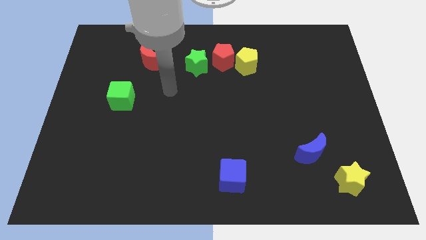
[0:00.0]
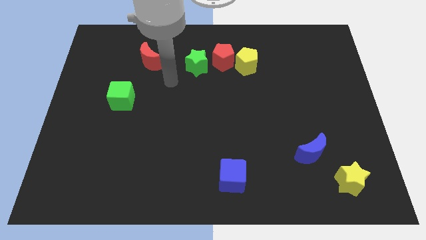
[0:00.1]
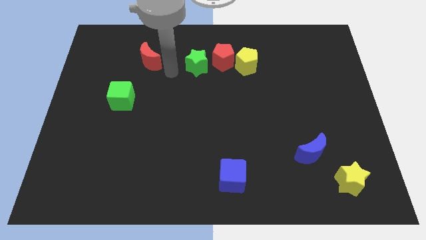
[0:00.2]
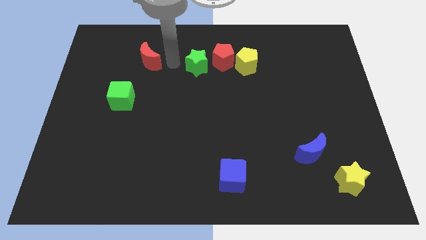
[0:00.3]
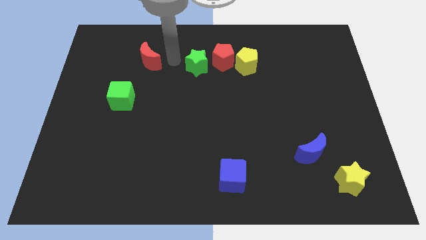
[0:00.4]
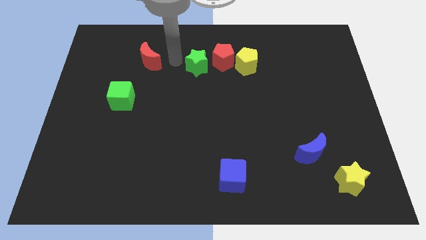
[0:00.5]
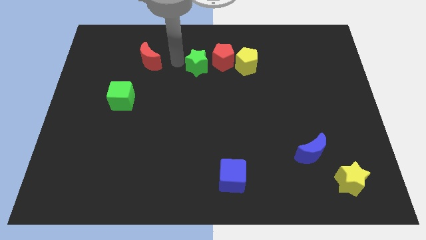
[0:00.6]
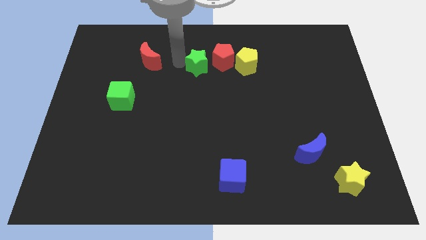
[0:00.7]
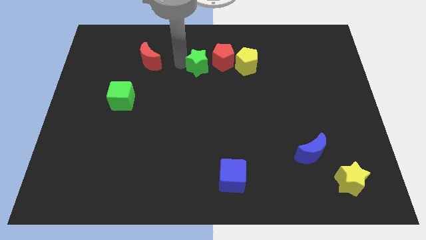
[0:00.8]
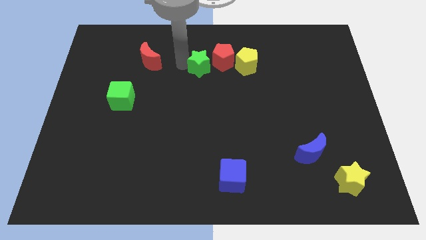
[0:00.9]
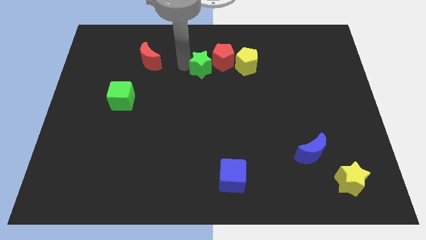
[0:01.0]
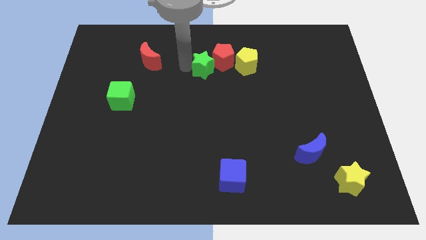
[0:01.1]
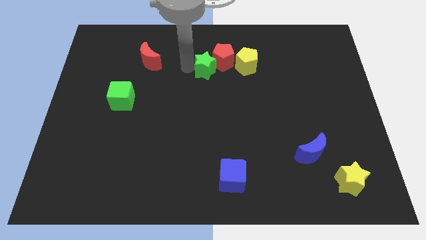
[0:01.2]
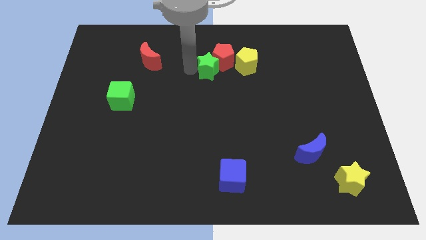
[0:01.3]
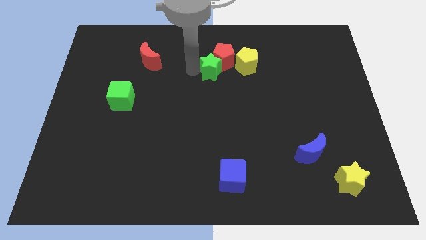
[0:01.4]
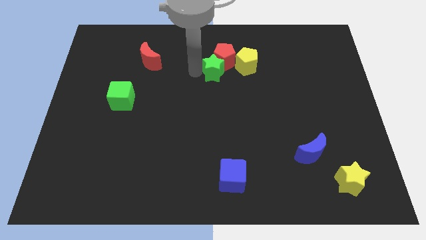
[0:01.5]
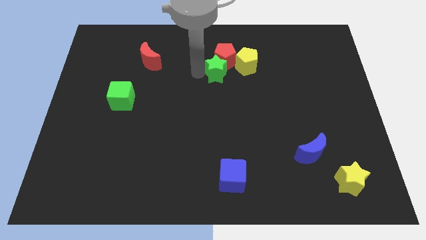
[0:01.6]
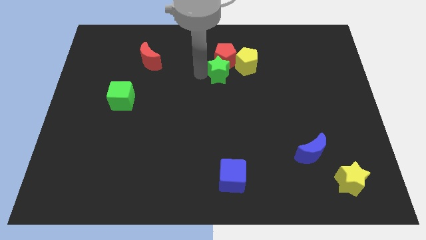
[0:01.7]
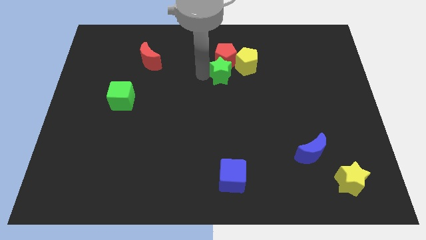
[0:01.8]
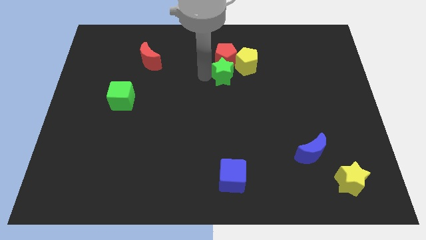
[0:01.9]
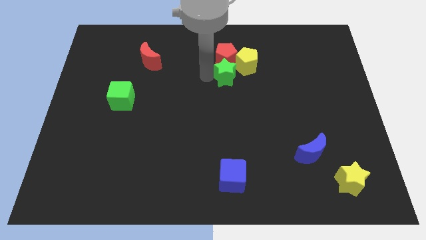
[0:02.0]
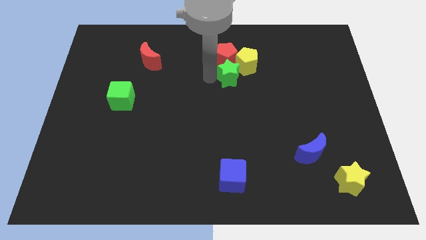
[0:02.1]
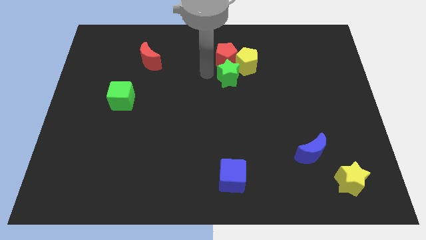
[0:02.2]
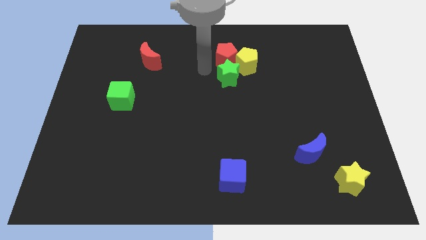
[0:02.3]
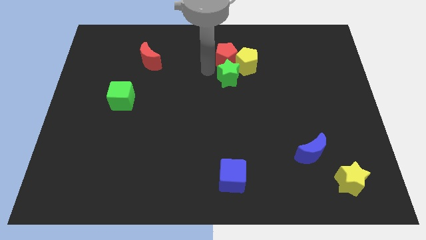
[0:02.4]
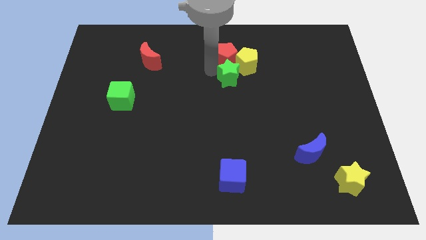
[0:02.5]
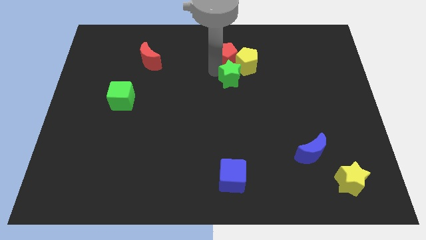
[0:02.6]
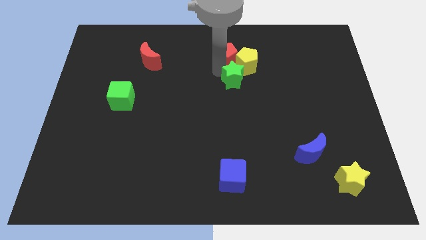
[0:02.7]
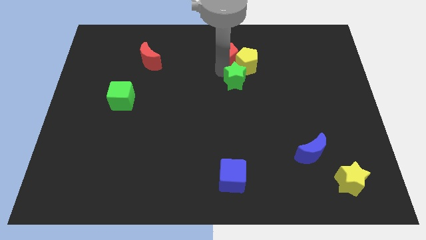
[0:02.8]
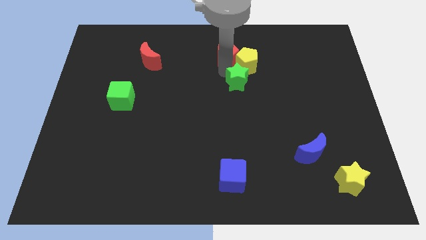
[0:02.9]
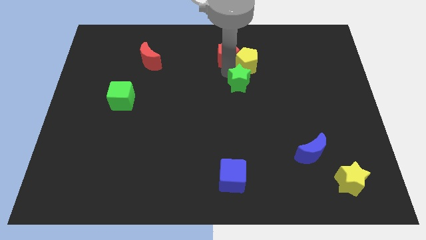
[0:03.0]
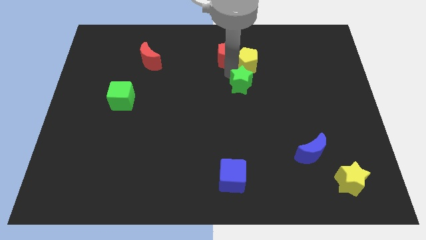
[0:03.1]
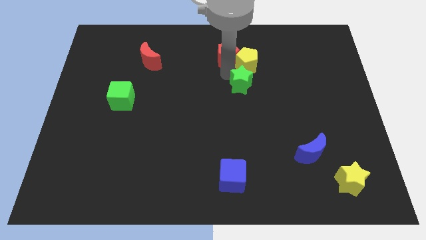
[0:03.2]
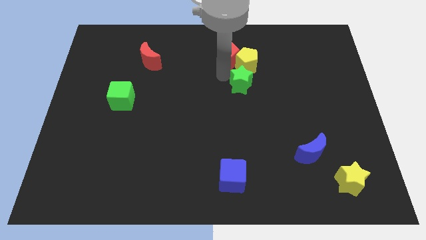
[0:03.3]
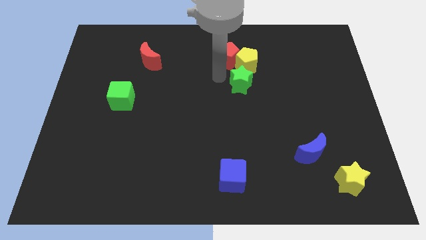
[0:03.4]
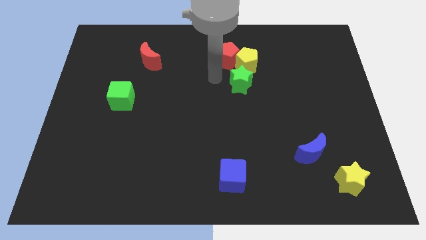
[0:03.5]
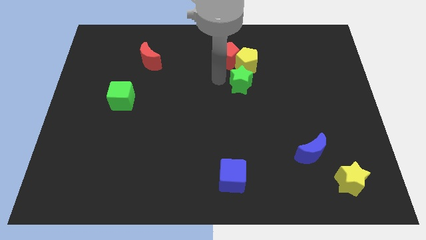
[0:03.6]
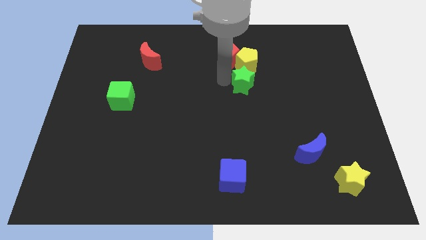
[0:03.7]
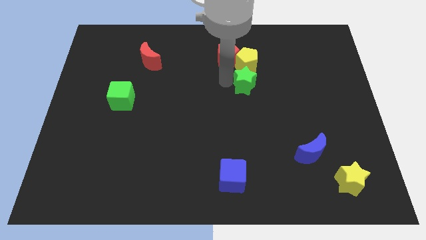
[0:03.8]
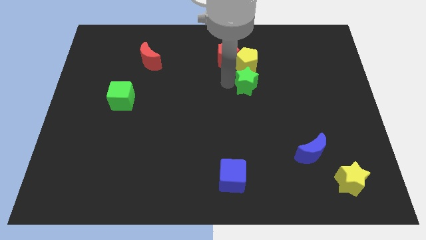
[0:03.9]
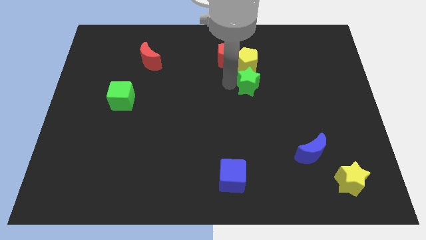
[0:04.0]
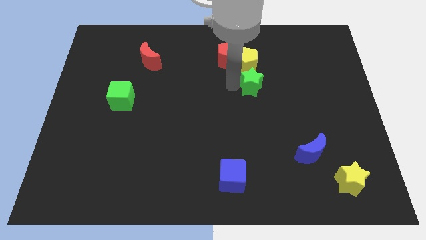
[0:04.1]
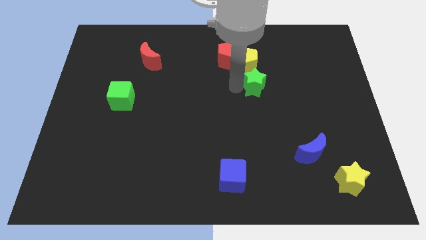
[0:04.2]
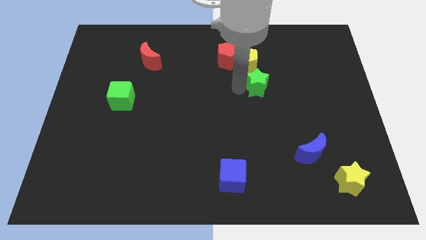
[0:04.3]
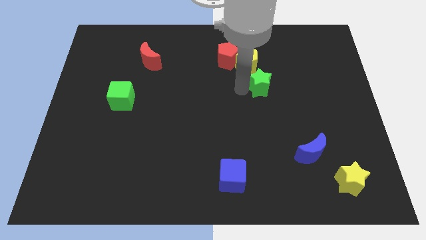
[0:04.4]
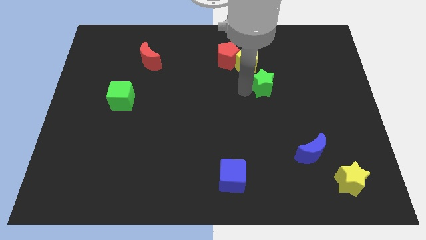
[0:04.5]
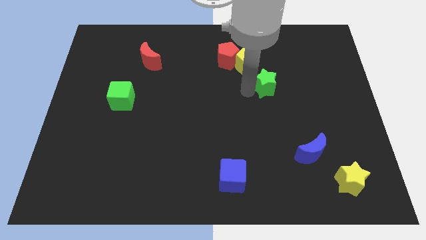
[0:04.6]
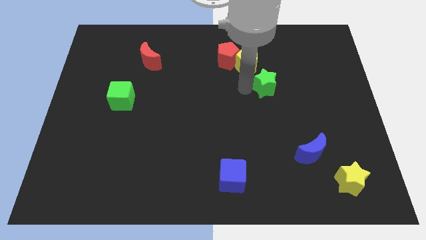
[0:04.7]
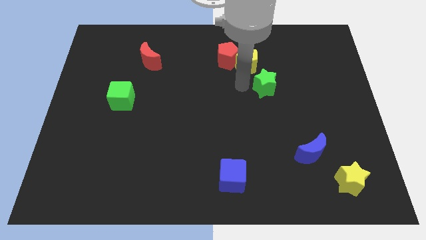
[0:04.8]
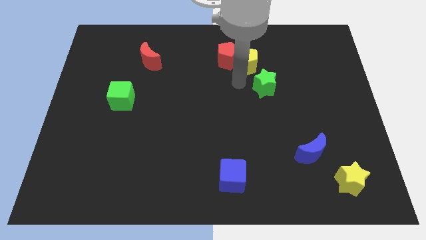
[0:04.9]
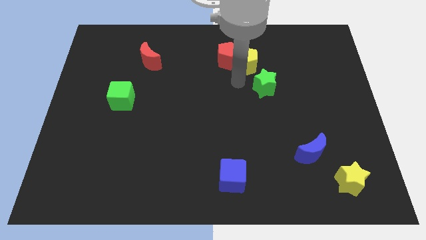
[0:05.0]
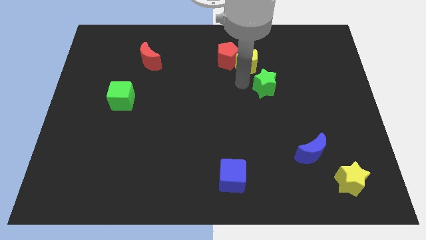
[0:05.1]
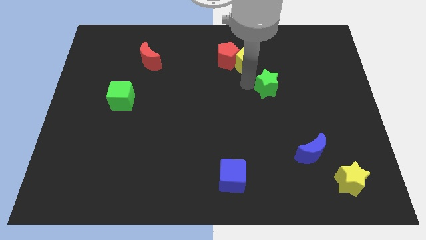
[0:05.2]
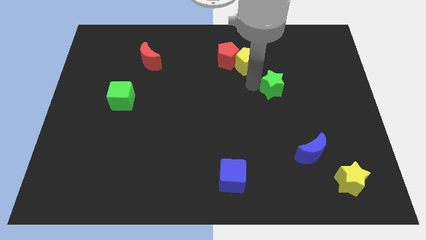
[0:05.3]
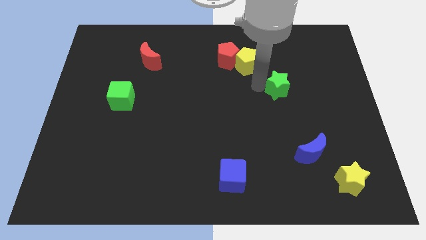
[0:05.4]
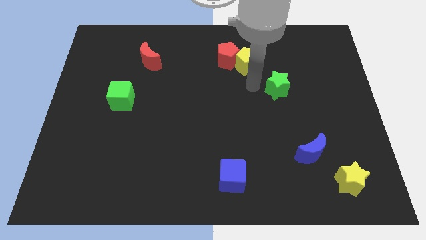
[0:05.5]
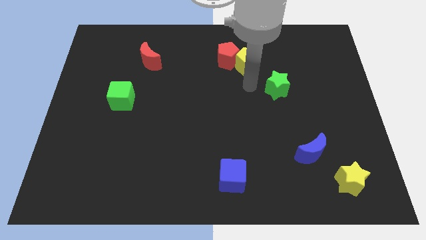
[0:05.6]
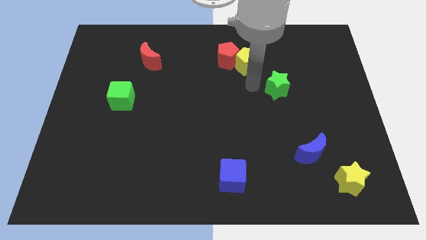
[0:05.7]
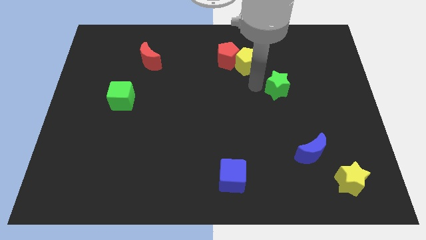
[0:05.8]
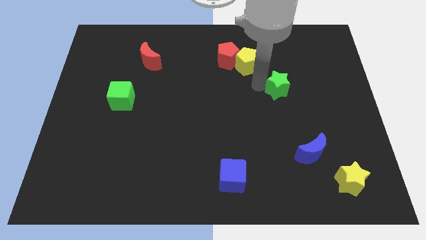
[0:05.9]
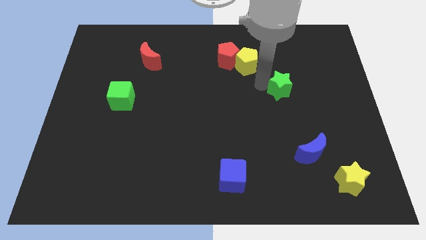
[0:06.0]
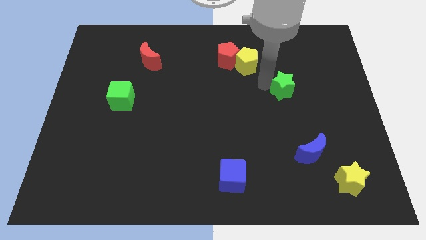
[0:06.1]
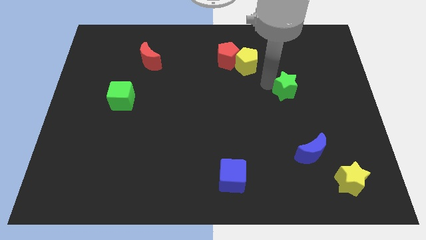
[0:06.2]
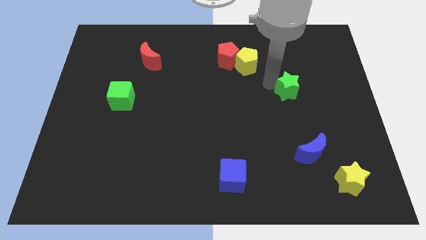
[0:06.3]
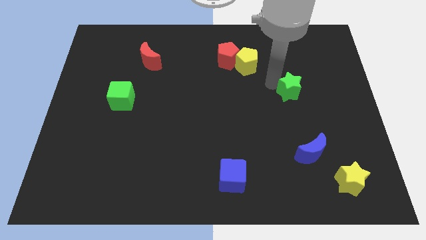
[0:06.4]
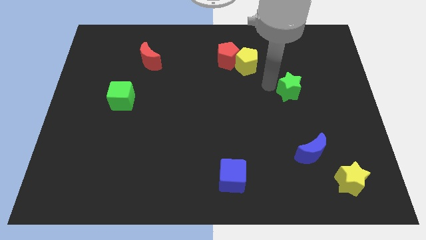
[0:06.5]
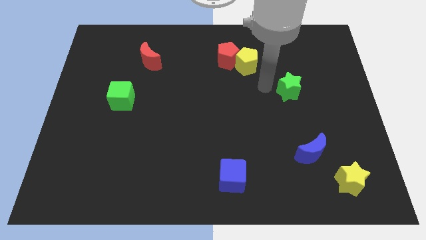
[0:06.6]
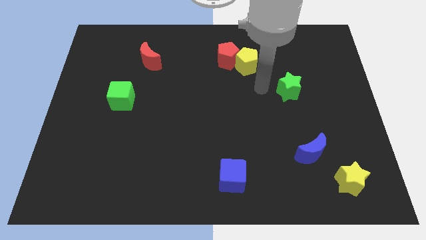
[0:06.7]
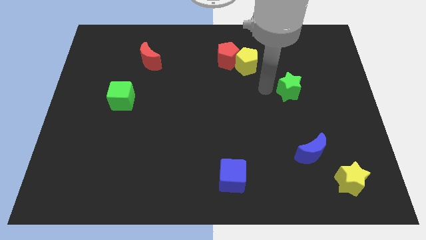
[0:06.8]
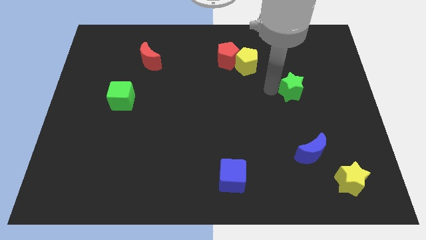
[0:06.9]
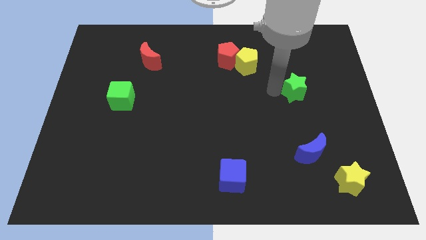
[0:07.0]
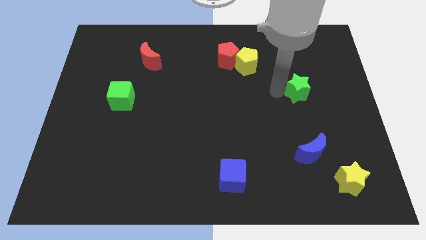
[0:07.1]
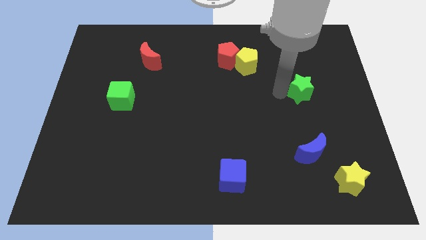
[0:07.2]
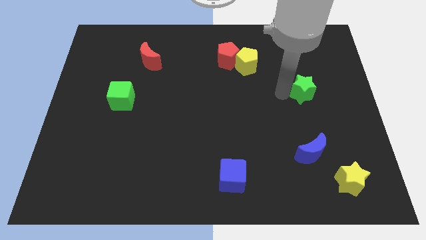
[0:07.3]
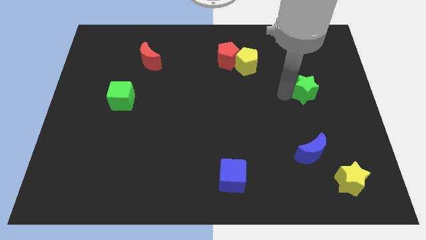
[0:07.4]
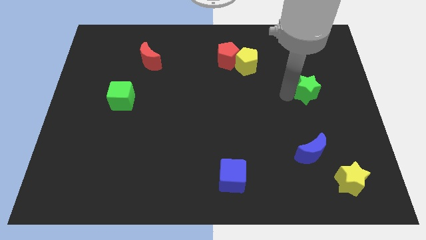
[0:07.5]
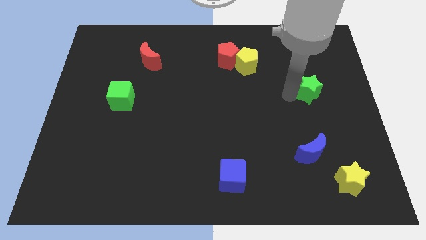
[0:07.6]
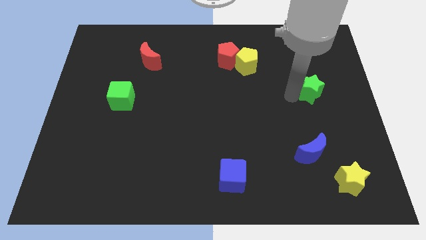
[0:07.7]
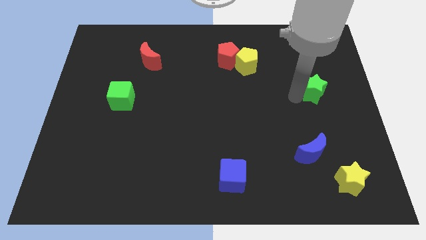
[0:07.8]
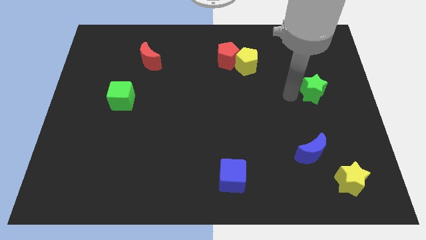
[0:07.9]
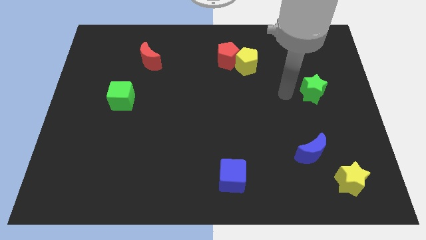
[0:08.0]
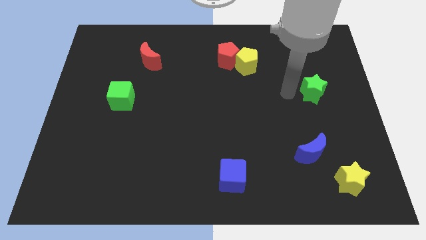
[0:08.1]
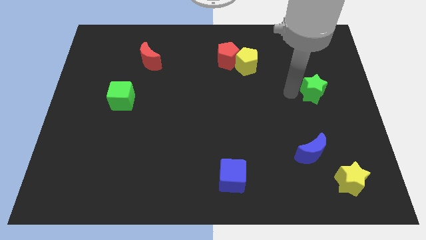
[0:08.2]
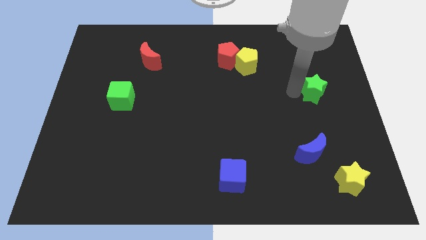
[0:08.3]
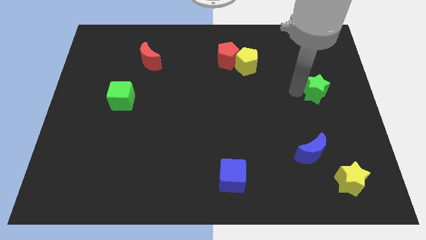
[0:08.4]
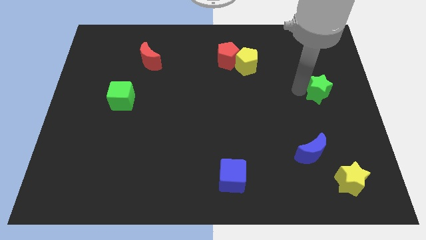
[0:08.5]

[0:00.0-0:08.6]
put the green star to the right side
